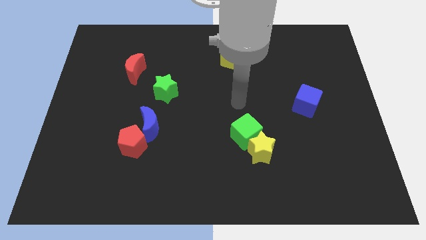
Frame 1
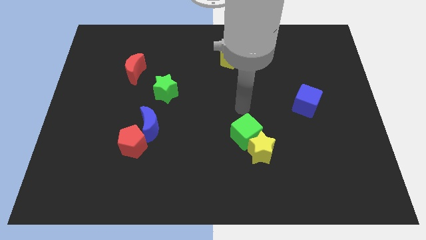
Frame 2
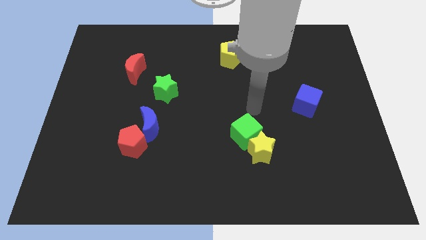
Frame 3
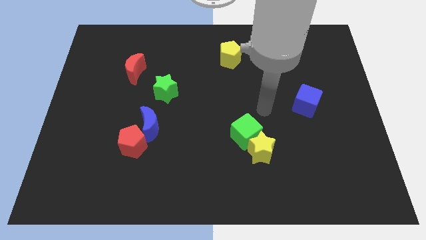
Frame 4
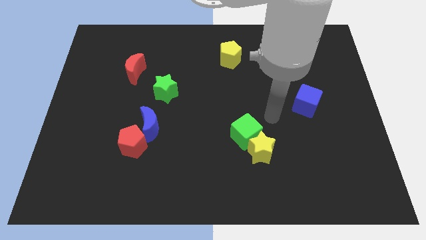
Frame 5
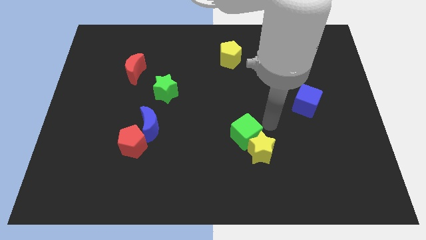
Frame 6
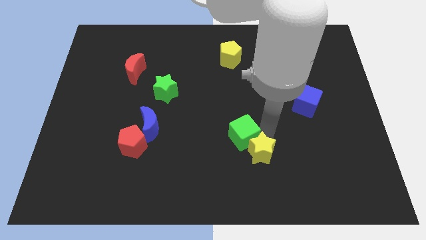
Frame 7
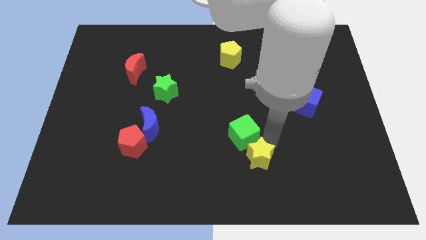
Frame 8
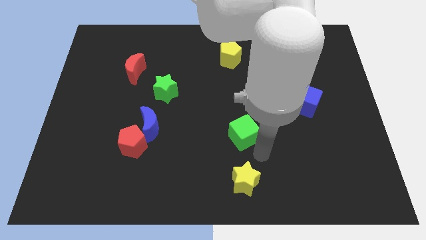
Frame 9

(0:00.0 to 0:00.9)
pull the green cube apart from the yellow star

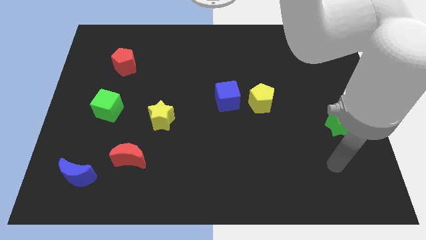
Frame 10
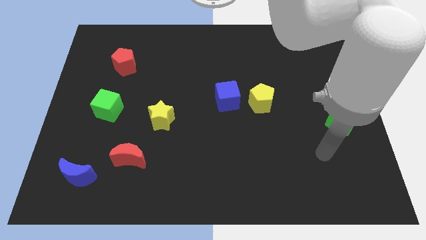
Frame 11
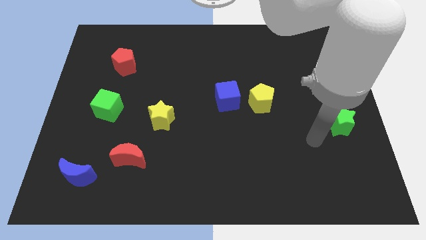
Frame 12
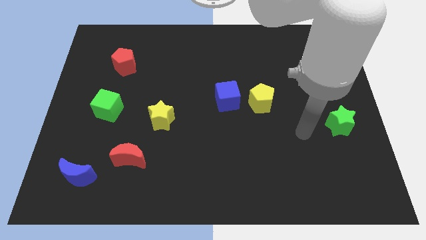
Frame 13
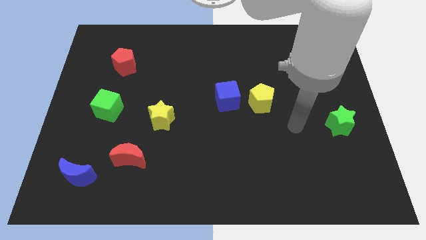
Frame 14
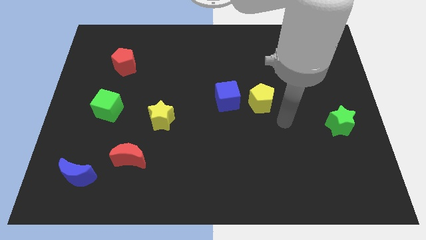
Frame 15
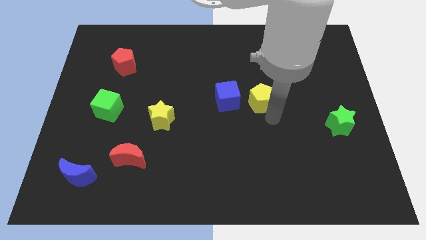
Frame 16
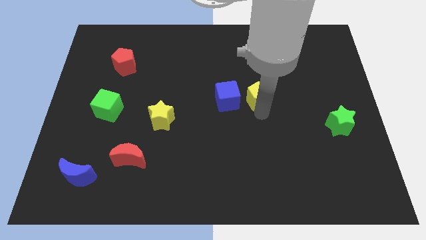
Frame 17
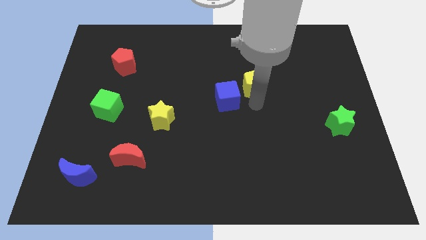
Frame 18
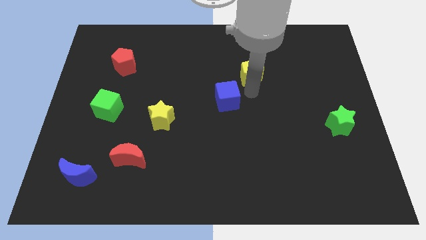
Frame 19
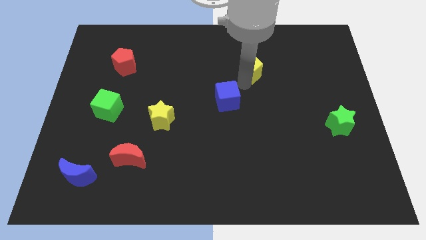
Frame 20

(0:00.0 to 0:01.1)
separate the blue cube from the yellow pentagon

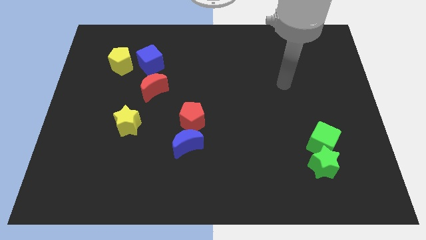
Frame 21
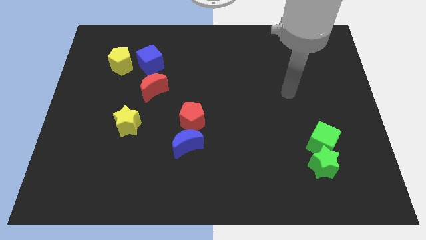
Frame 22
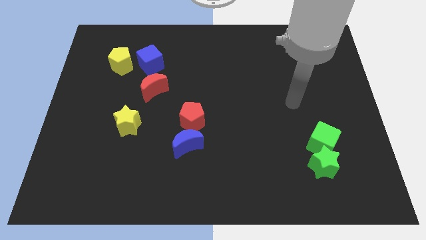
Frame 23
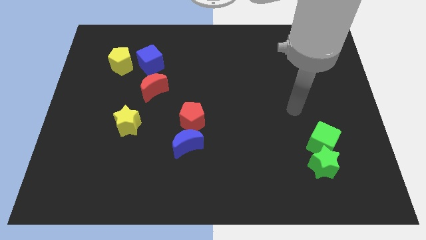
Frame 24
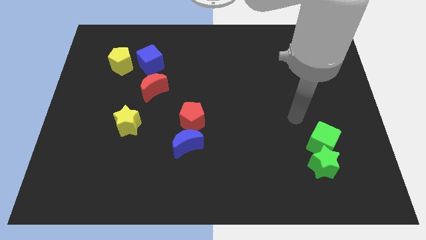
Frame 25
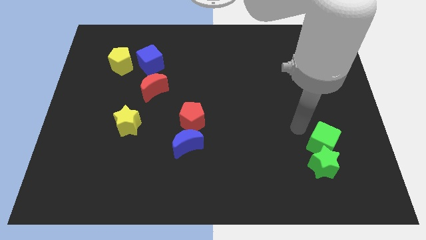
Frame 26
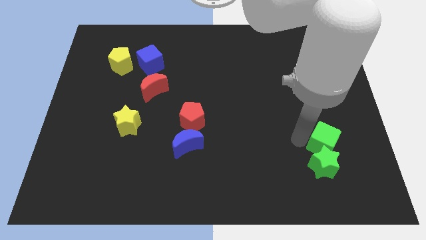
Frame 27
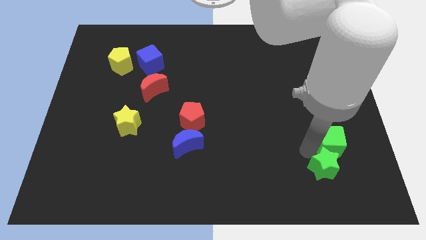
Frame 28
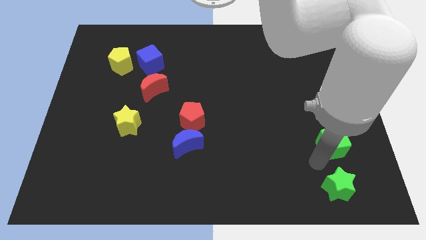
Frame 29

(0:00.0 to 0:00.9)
move the green cube away from the green star

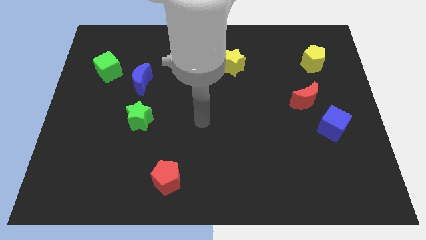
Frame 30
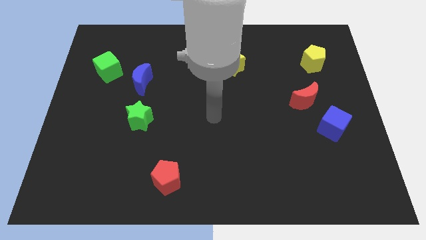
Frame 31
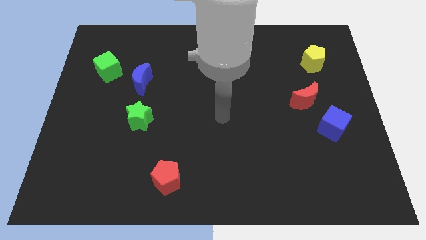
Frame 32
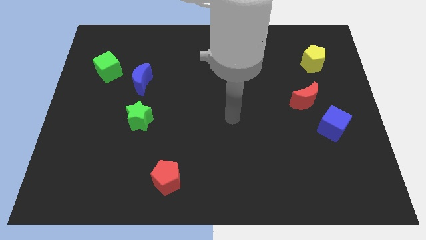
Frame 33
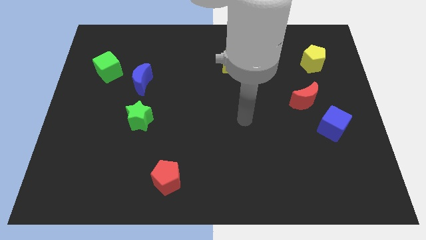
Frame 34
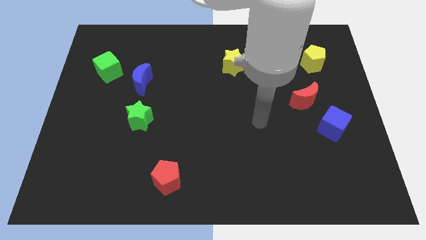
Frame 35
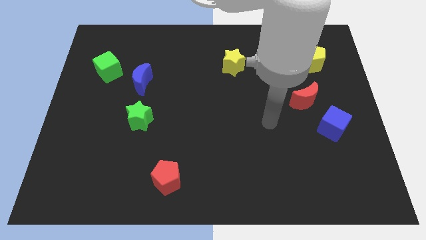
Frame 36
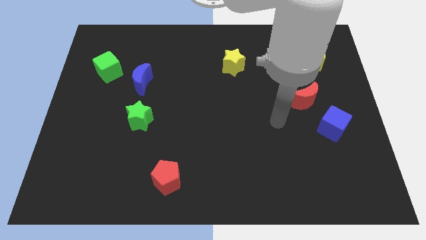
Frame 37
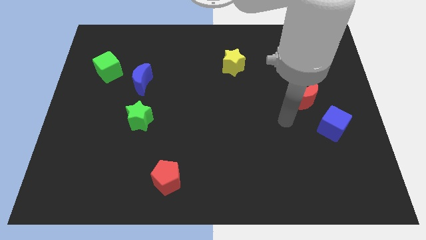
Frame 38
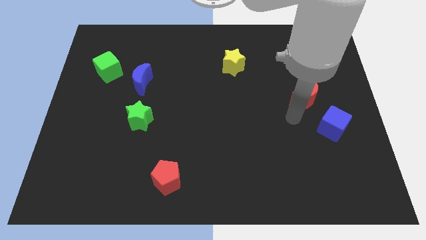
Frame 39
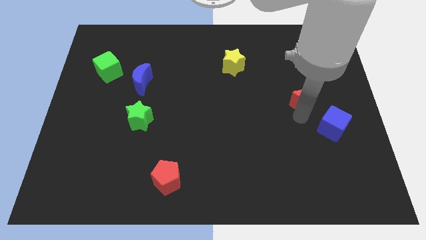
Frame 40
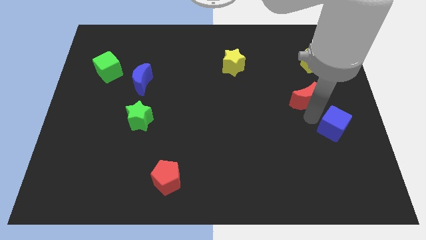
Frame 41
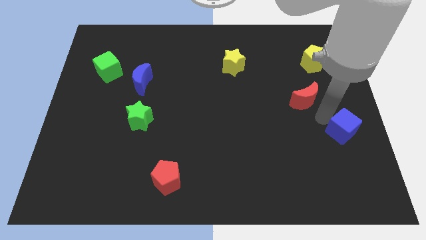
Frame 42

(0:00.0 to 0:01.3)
pull the red moon apart from the blue cube

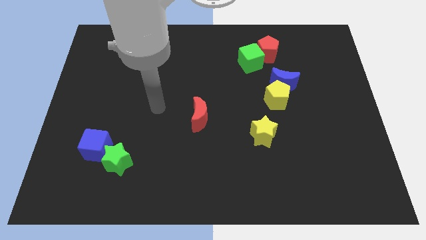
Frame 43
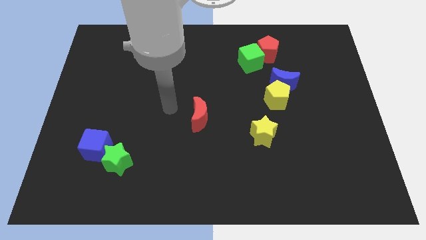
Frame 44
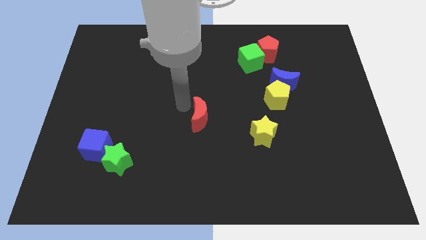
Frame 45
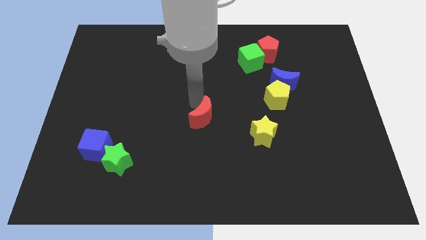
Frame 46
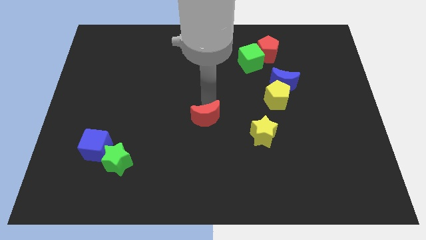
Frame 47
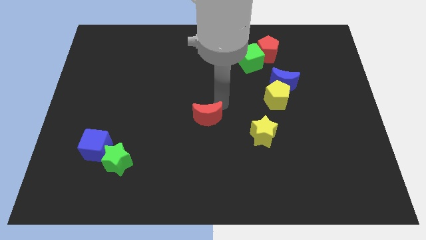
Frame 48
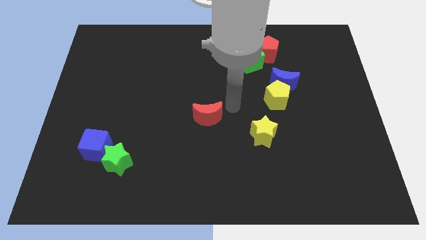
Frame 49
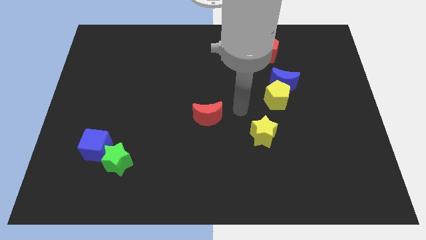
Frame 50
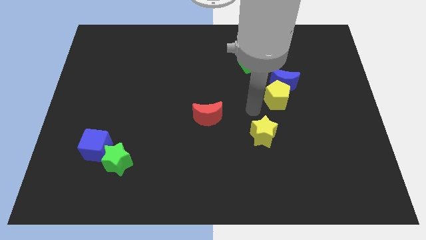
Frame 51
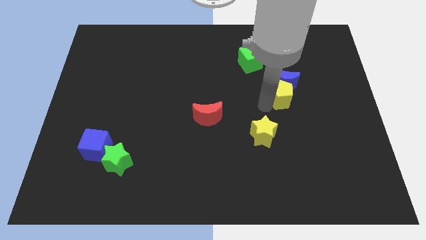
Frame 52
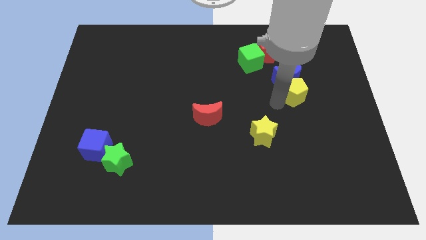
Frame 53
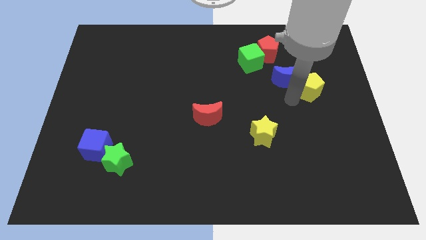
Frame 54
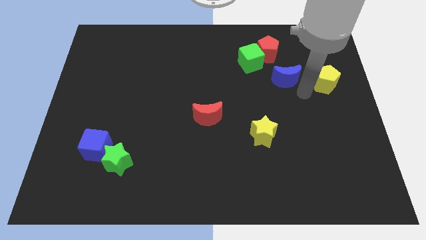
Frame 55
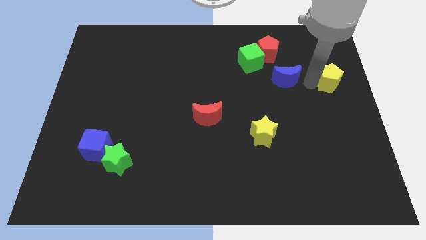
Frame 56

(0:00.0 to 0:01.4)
move the blue moon away from the yellow pentagon

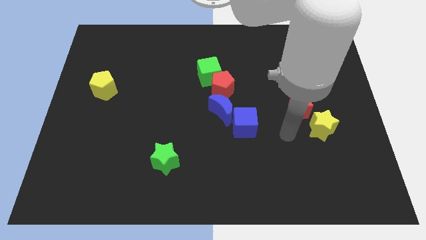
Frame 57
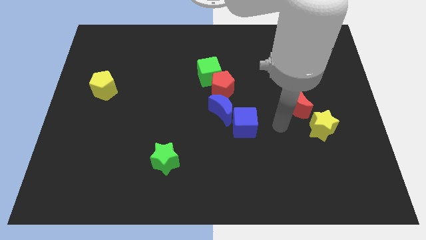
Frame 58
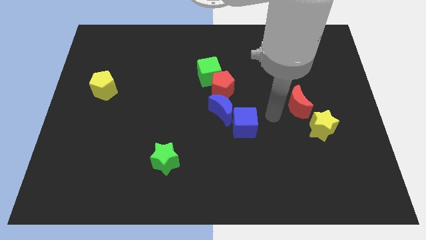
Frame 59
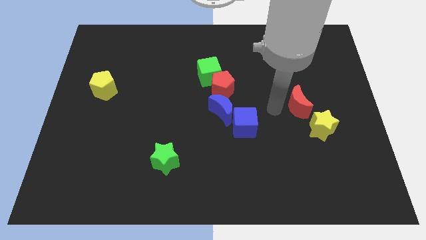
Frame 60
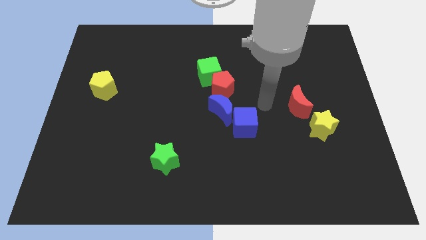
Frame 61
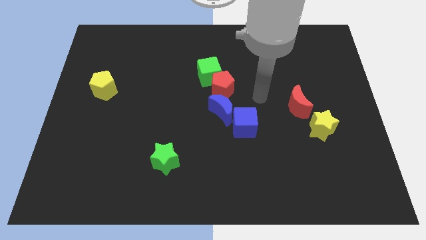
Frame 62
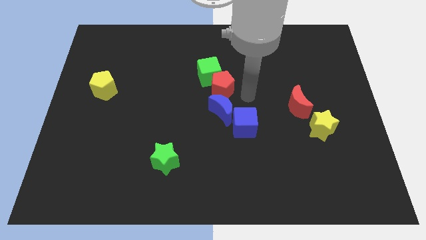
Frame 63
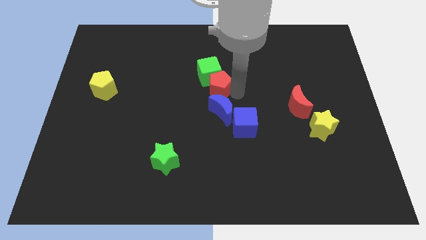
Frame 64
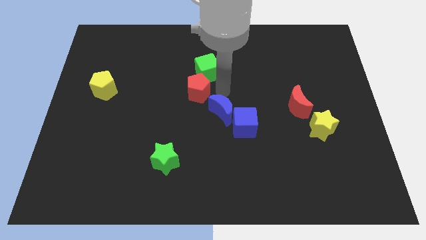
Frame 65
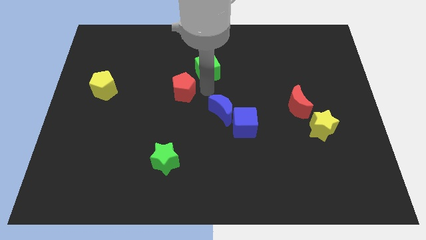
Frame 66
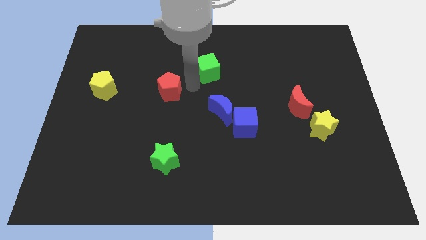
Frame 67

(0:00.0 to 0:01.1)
separate the green cube from the red pentagon

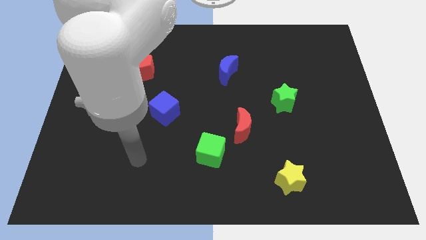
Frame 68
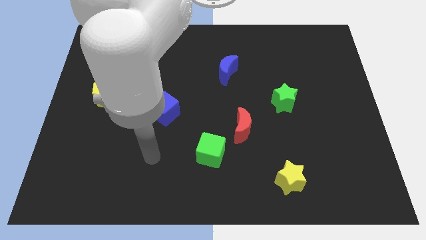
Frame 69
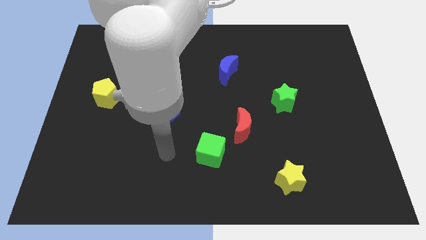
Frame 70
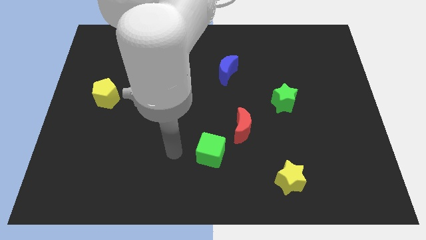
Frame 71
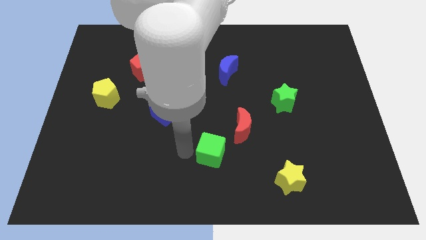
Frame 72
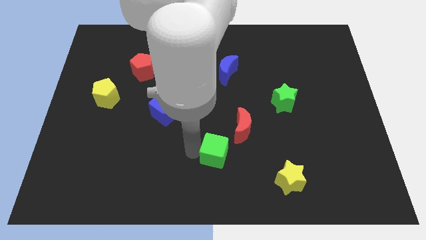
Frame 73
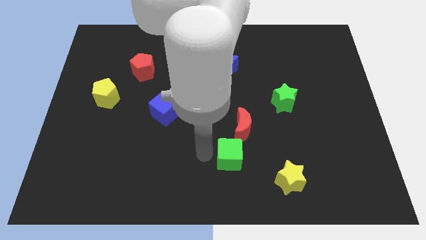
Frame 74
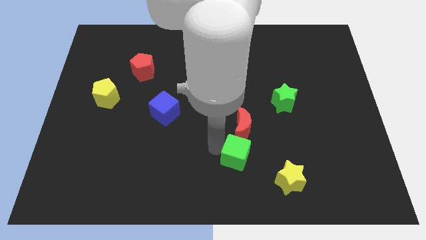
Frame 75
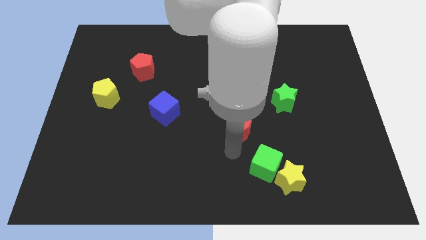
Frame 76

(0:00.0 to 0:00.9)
move the red moon away from the green cube

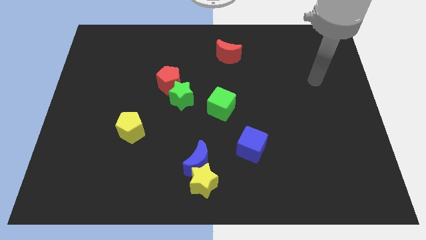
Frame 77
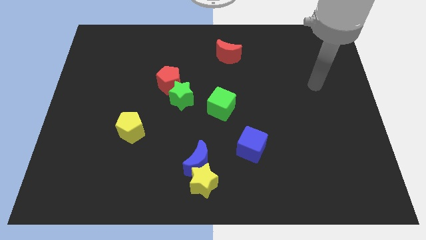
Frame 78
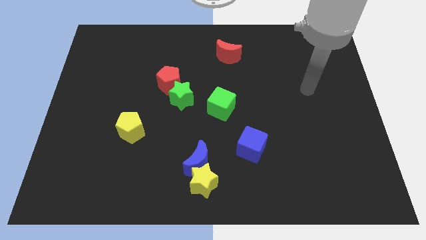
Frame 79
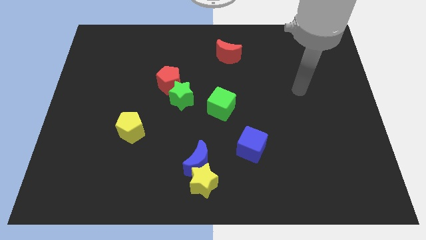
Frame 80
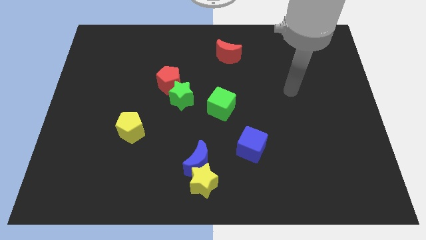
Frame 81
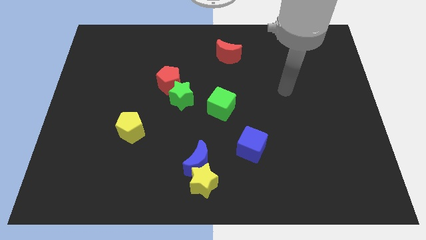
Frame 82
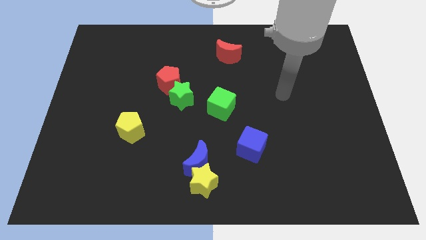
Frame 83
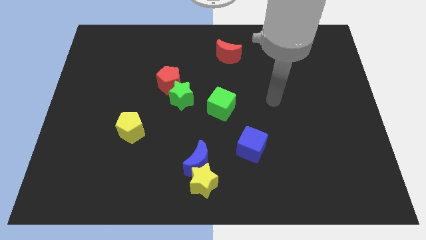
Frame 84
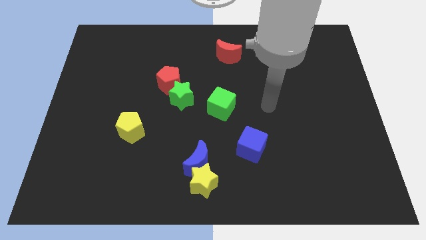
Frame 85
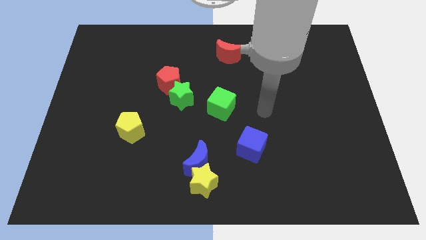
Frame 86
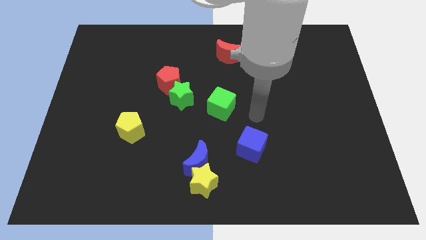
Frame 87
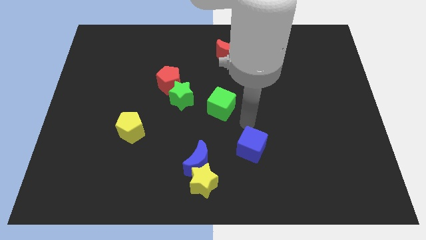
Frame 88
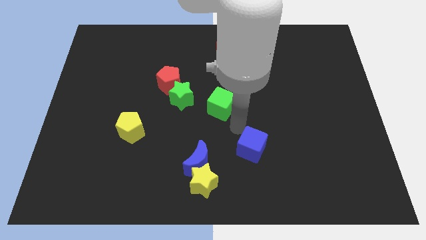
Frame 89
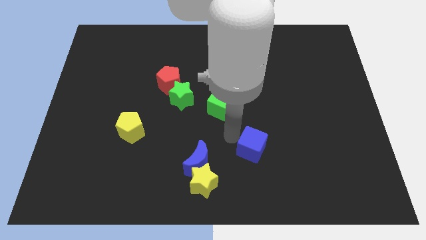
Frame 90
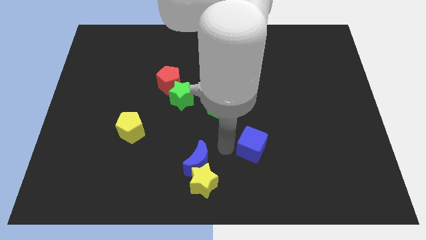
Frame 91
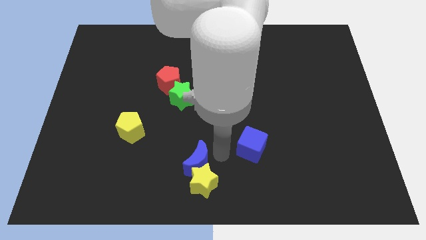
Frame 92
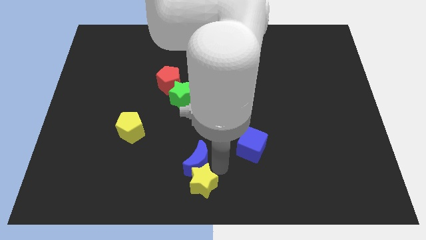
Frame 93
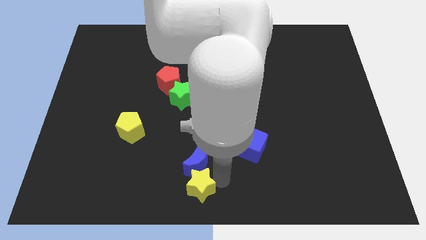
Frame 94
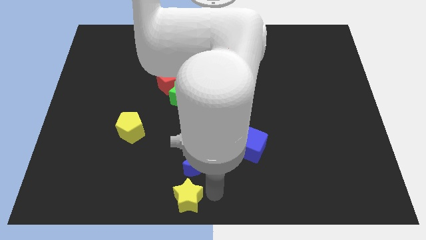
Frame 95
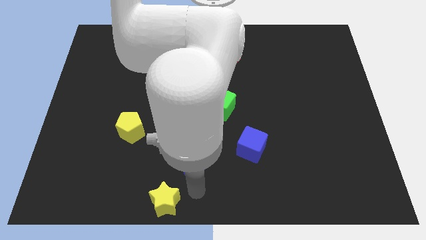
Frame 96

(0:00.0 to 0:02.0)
separate the blue moon from the yellow star
